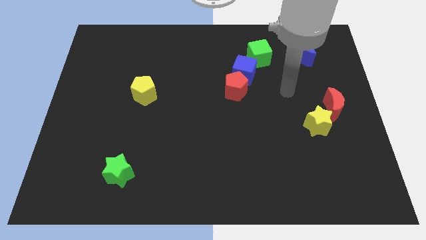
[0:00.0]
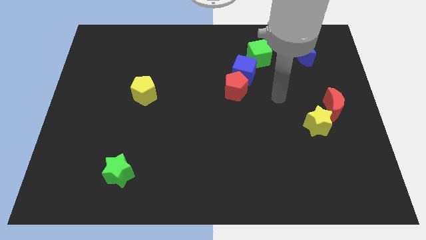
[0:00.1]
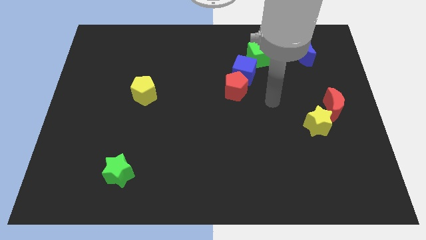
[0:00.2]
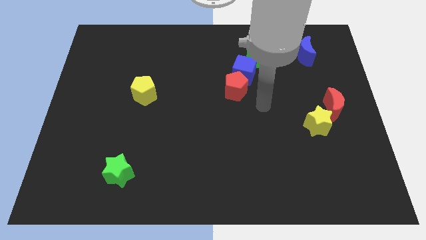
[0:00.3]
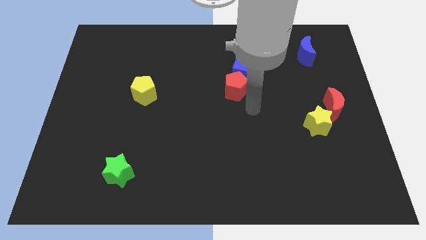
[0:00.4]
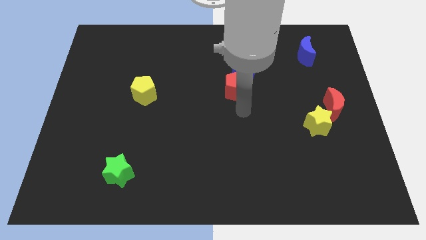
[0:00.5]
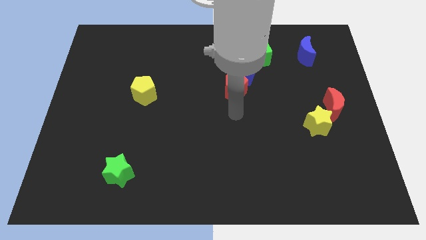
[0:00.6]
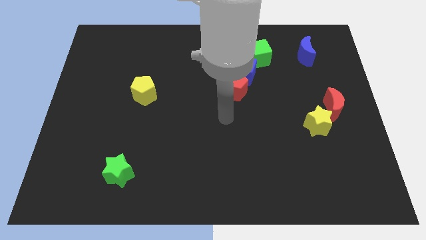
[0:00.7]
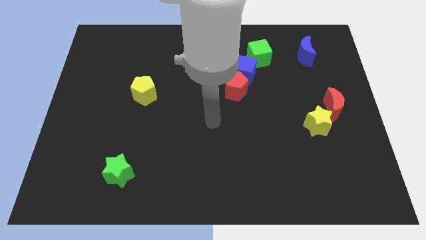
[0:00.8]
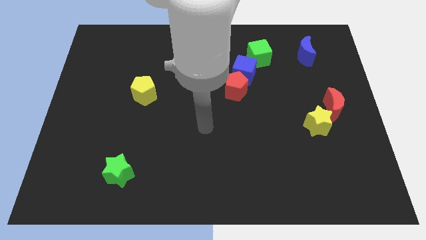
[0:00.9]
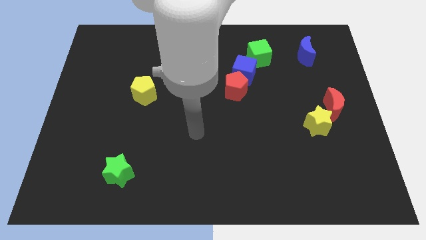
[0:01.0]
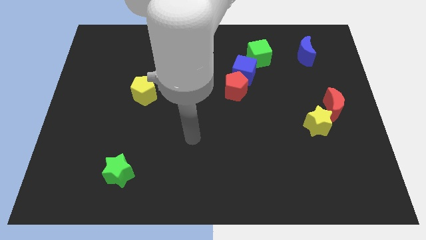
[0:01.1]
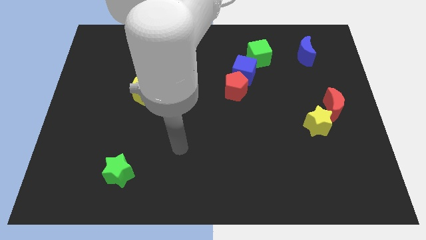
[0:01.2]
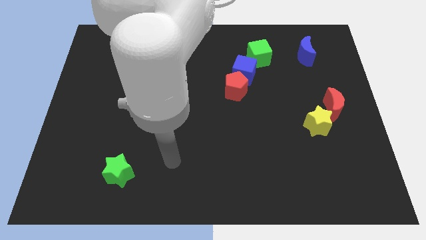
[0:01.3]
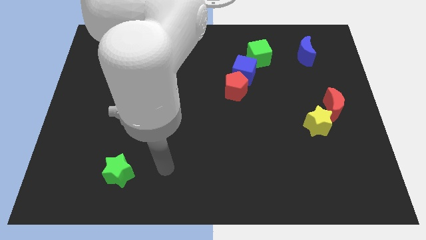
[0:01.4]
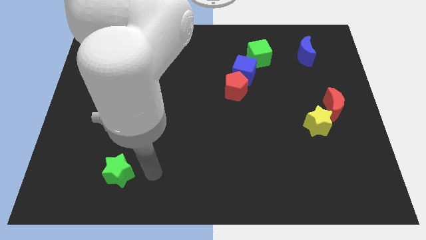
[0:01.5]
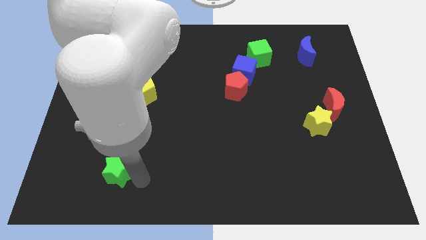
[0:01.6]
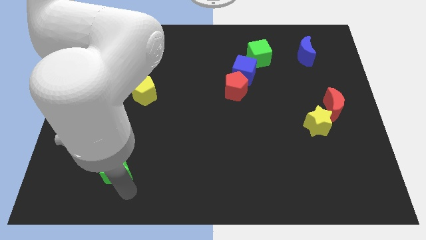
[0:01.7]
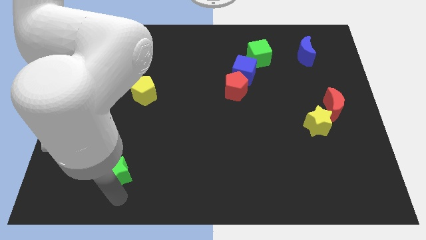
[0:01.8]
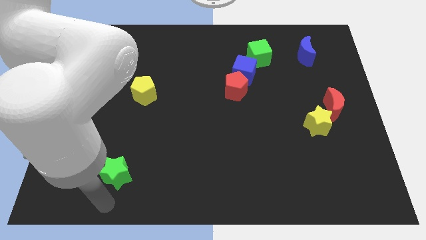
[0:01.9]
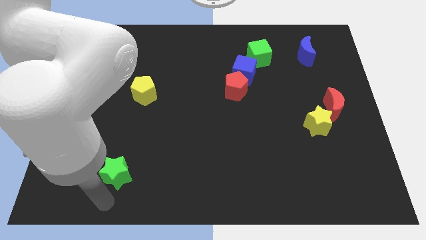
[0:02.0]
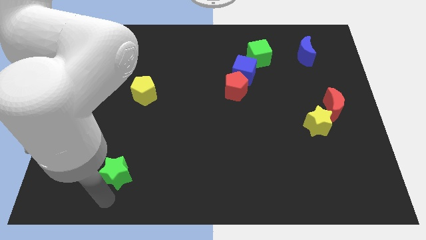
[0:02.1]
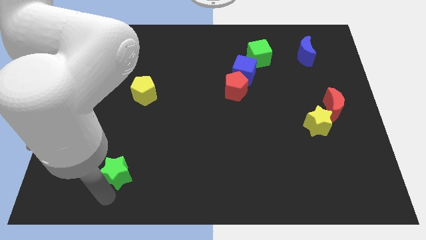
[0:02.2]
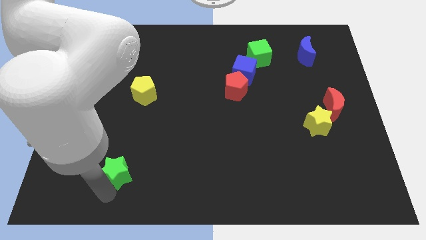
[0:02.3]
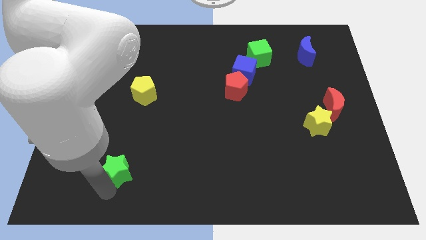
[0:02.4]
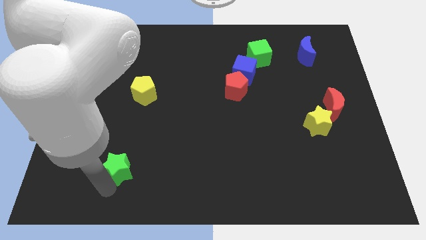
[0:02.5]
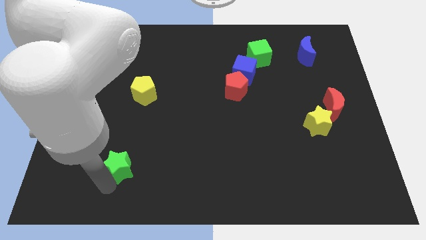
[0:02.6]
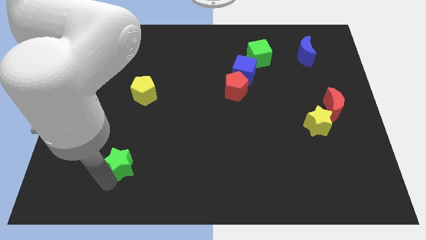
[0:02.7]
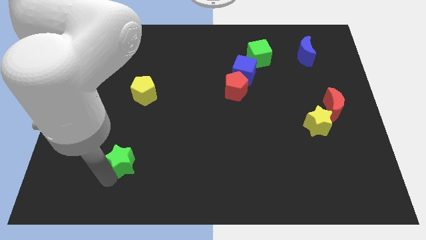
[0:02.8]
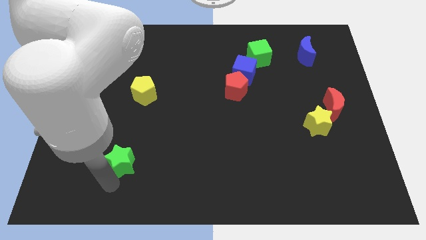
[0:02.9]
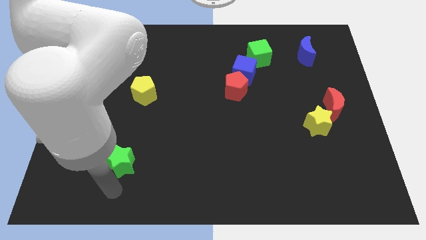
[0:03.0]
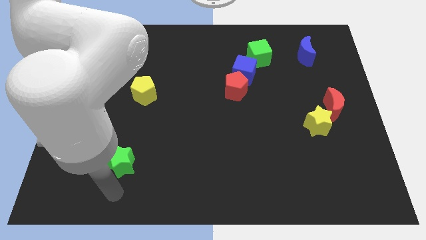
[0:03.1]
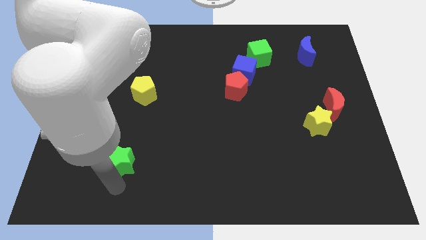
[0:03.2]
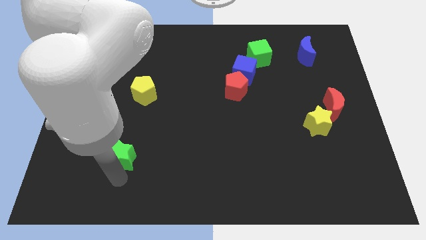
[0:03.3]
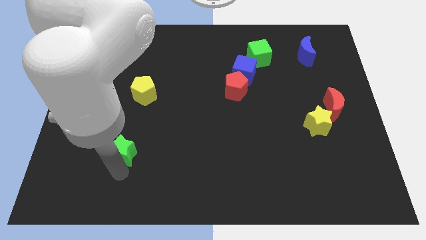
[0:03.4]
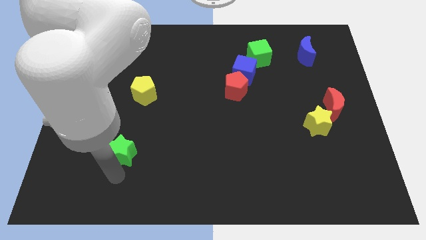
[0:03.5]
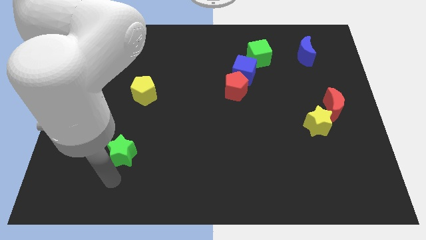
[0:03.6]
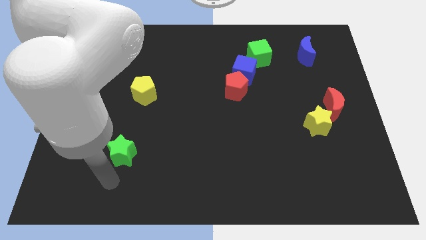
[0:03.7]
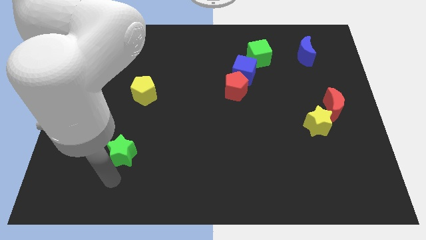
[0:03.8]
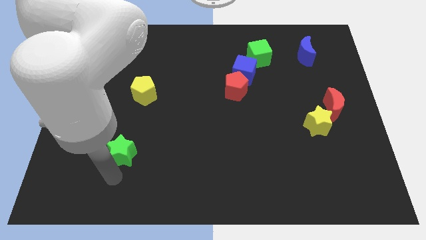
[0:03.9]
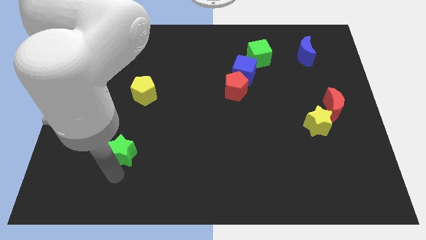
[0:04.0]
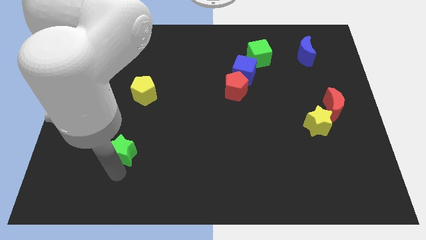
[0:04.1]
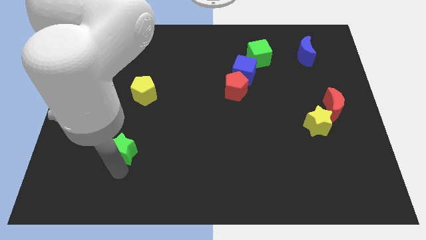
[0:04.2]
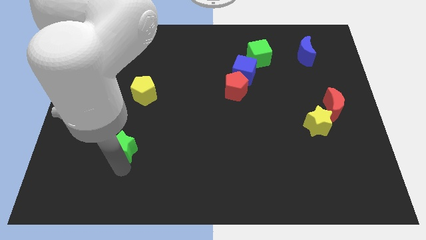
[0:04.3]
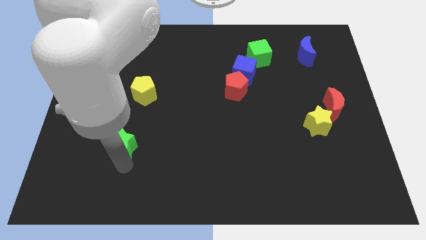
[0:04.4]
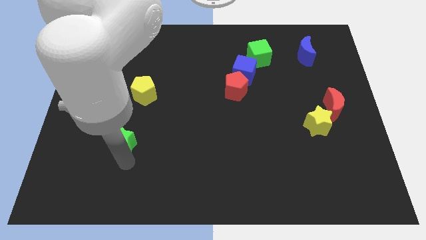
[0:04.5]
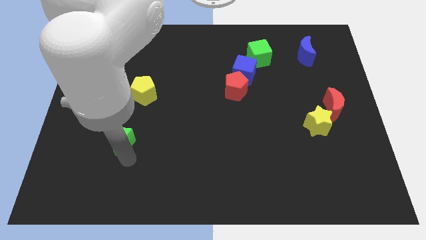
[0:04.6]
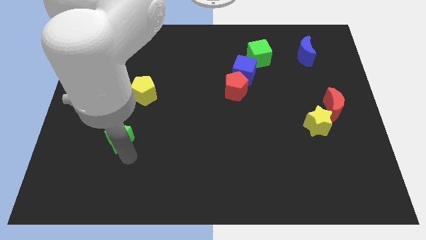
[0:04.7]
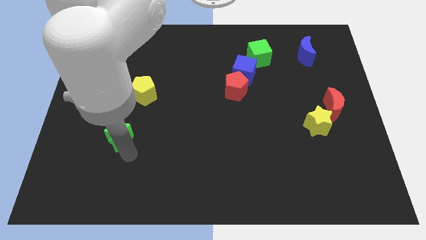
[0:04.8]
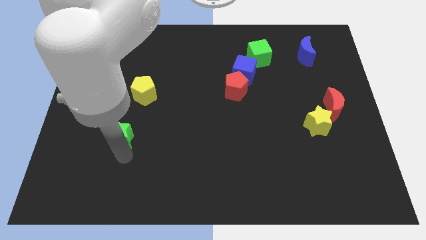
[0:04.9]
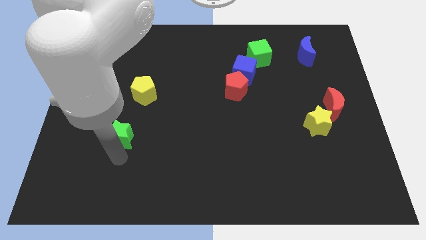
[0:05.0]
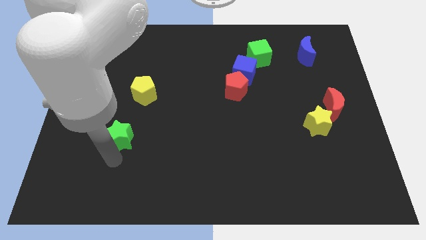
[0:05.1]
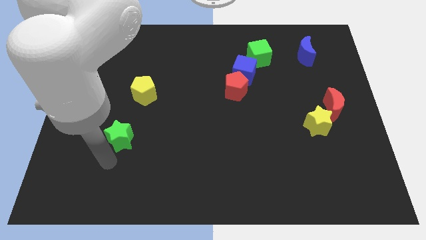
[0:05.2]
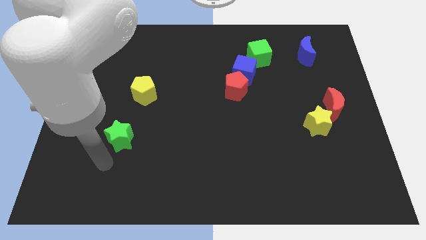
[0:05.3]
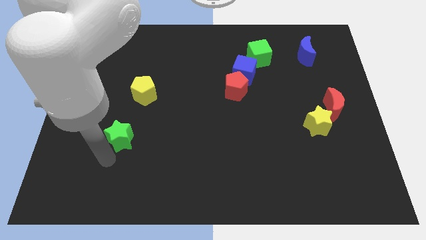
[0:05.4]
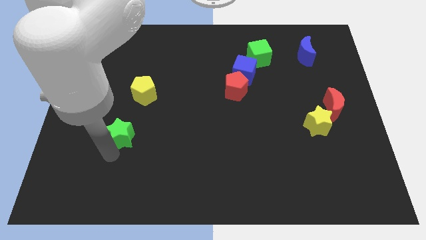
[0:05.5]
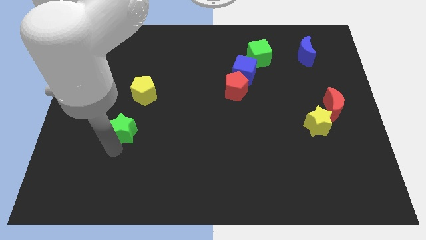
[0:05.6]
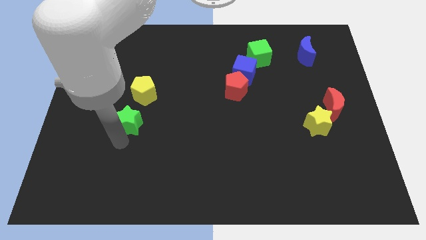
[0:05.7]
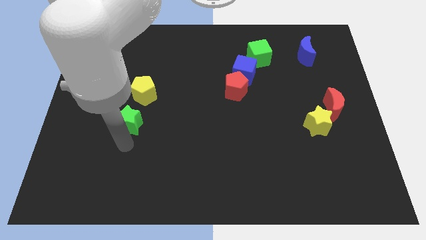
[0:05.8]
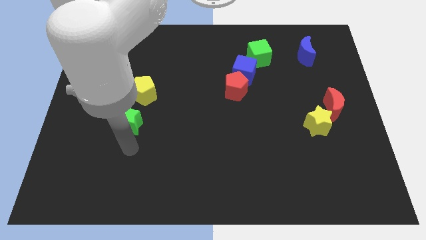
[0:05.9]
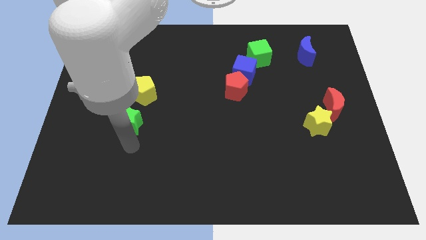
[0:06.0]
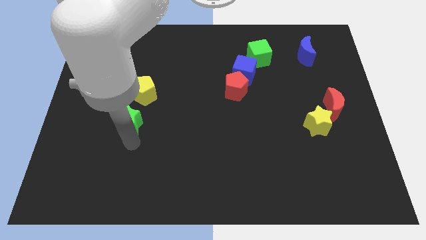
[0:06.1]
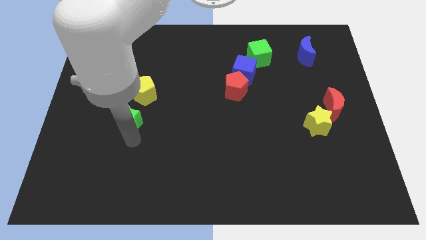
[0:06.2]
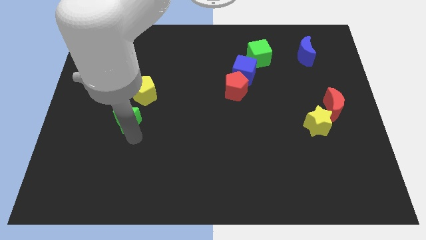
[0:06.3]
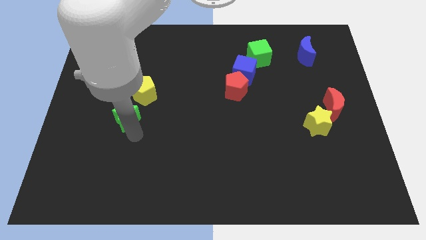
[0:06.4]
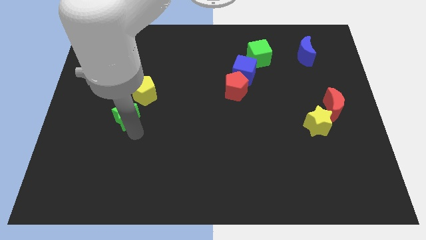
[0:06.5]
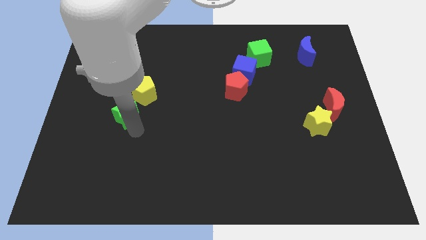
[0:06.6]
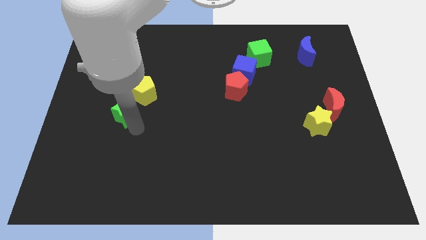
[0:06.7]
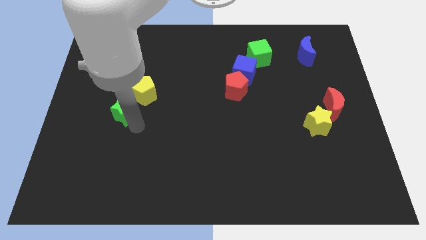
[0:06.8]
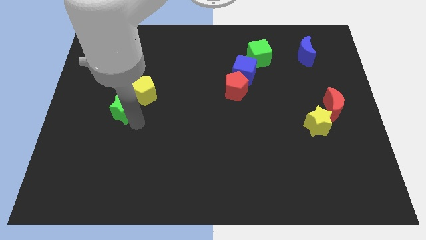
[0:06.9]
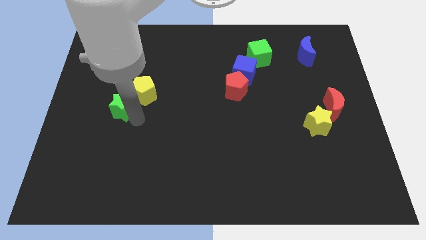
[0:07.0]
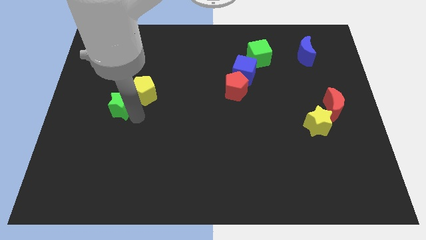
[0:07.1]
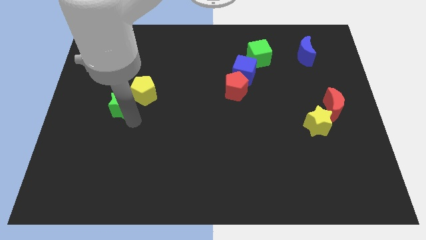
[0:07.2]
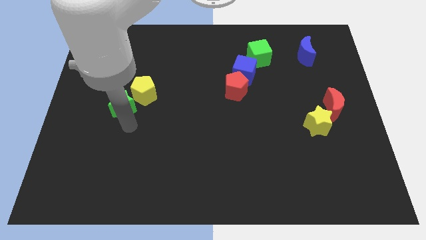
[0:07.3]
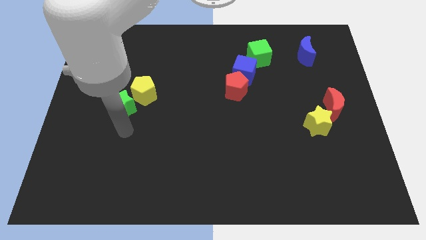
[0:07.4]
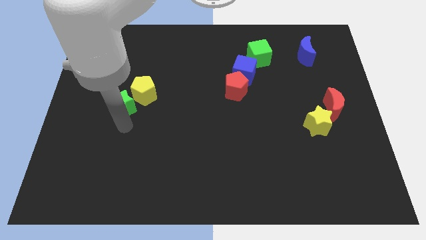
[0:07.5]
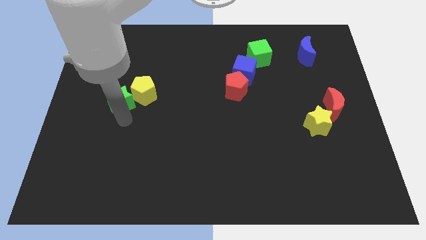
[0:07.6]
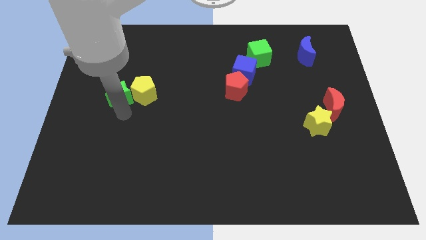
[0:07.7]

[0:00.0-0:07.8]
slide the green star upwards
